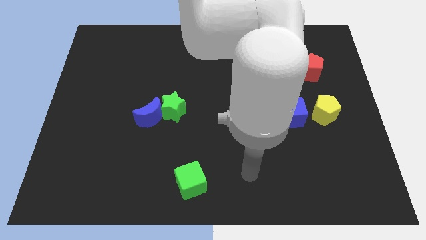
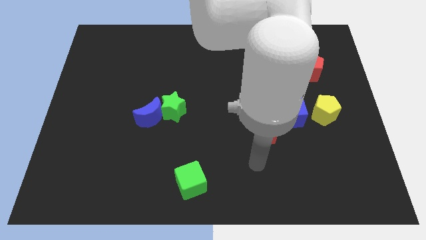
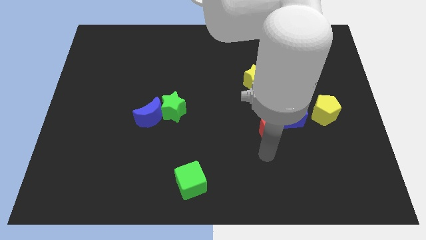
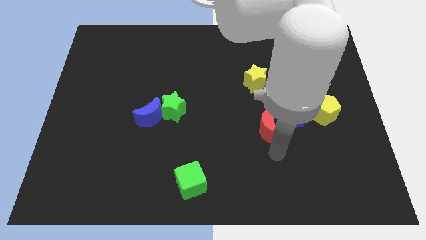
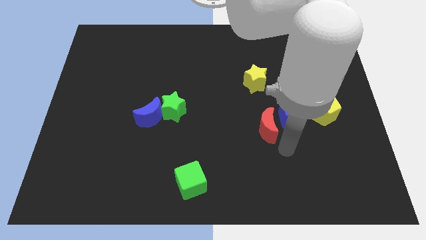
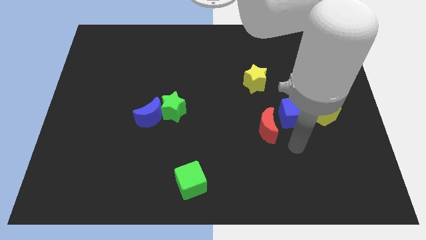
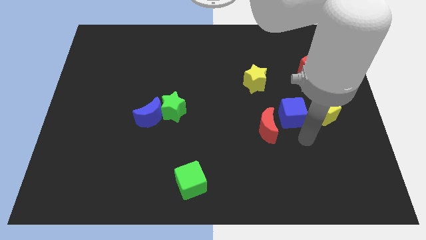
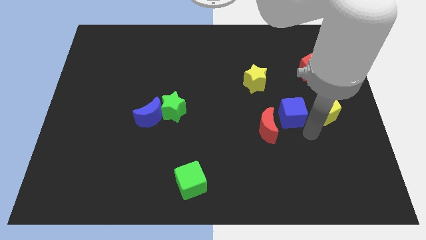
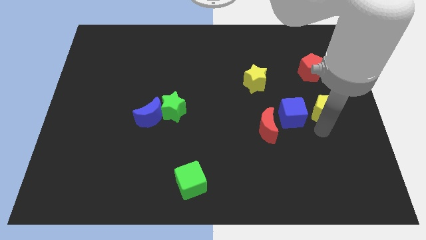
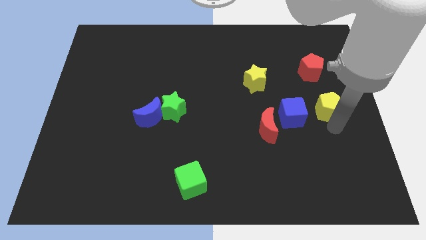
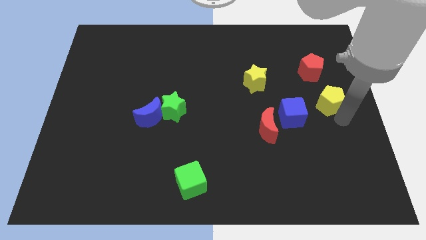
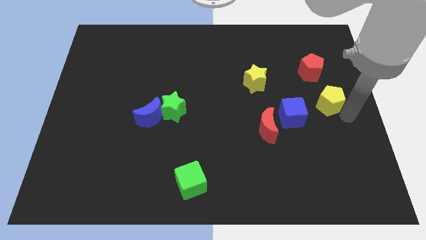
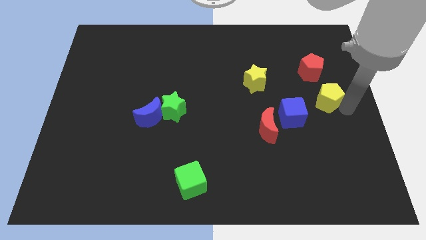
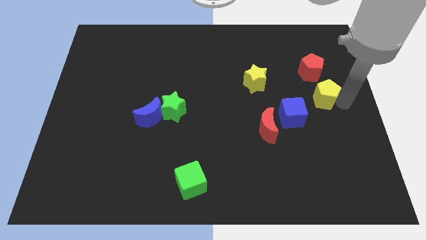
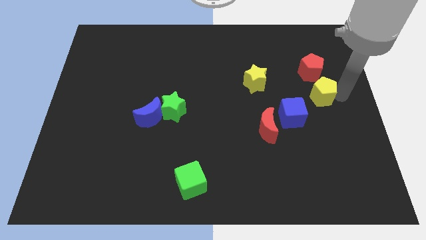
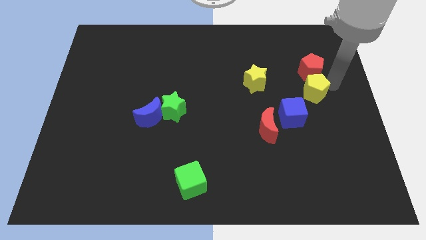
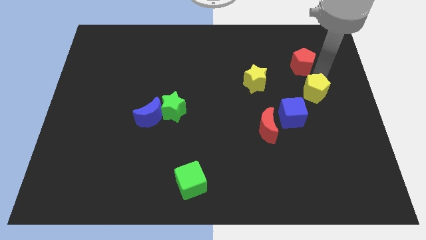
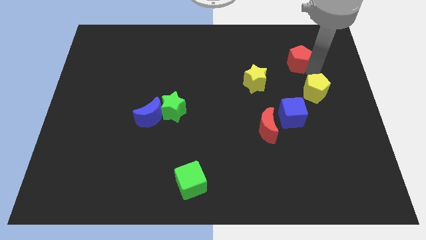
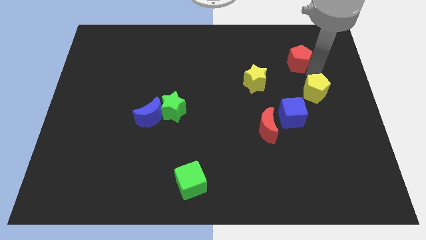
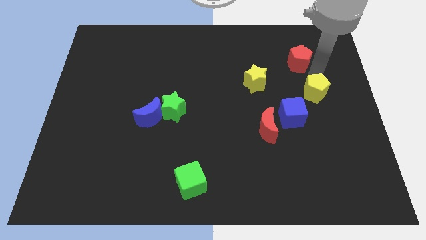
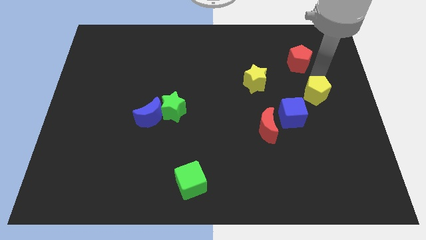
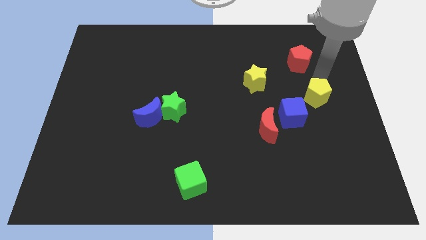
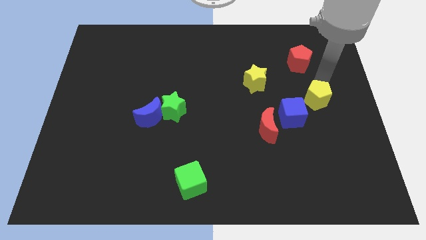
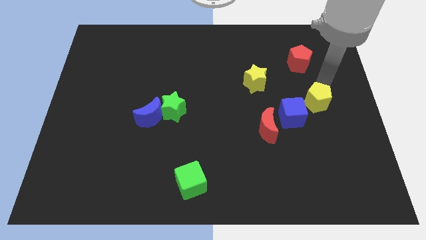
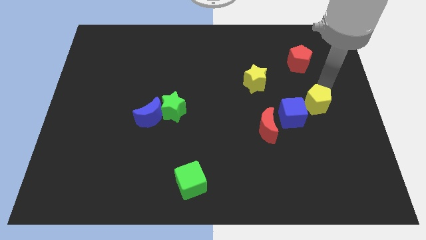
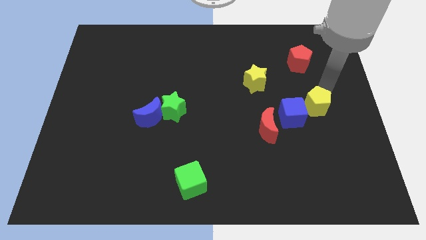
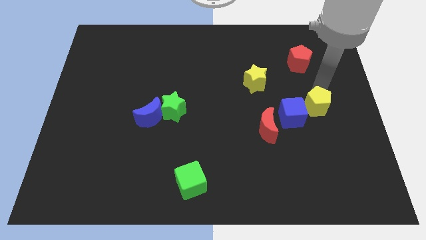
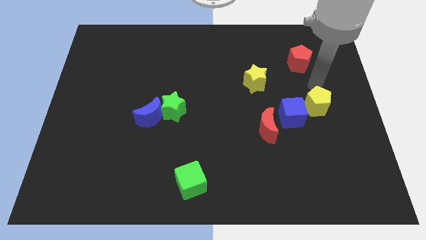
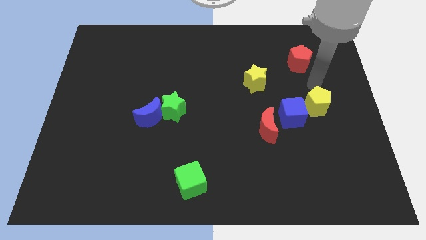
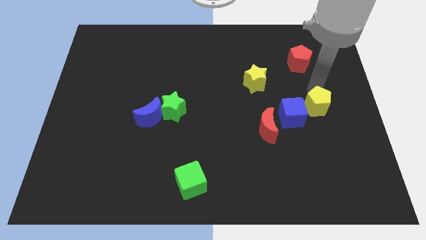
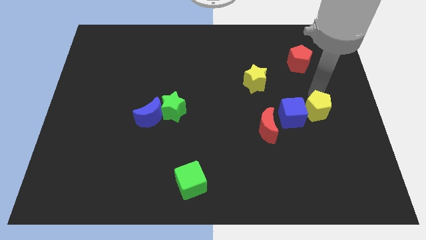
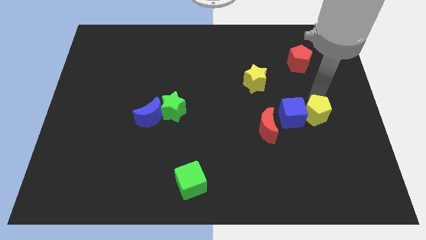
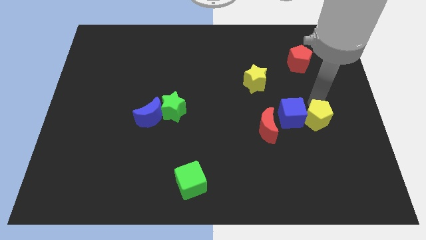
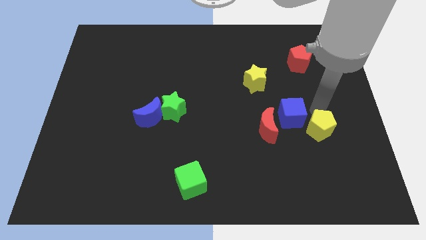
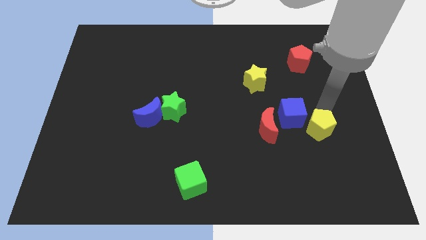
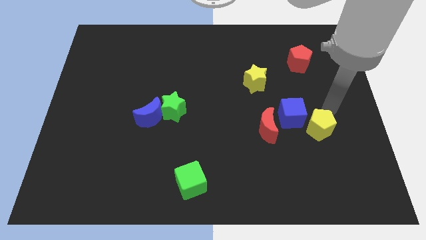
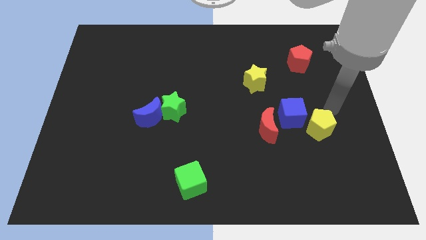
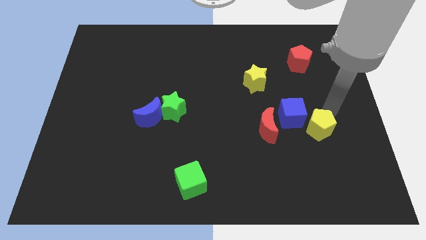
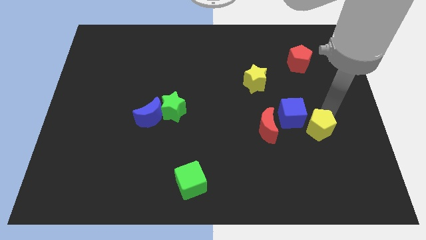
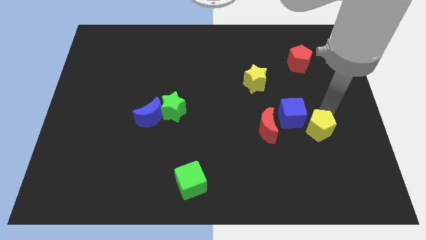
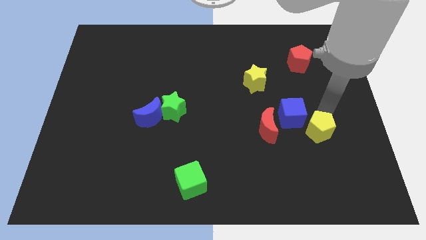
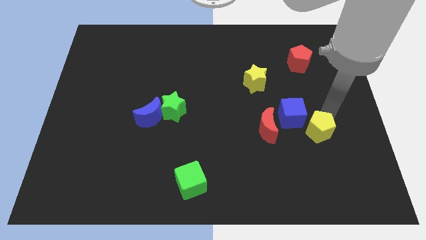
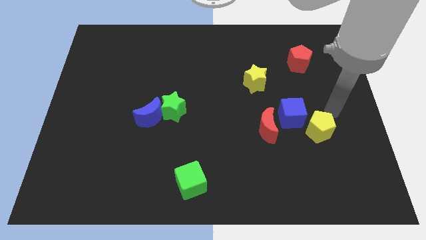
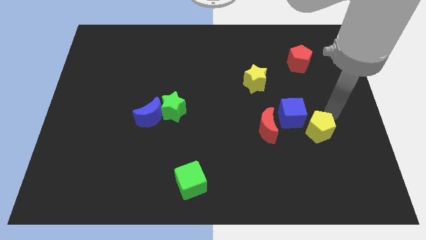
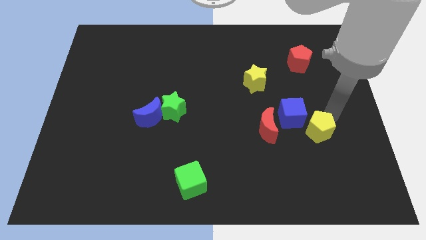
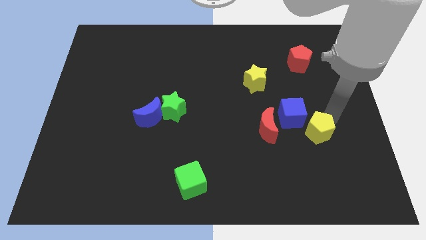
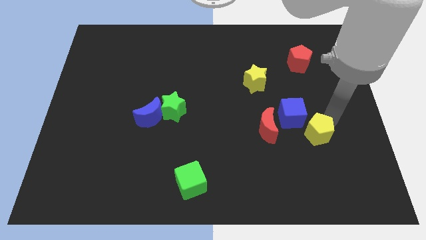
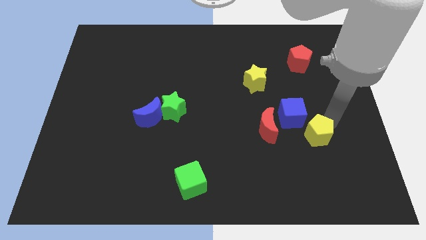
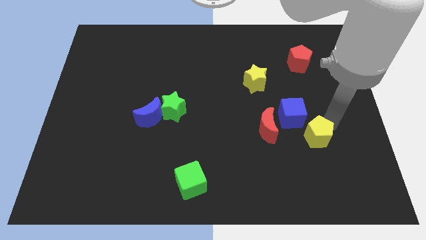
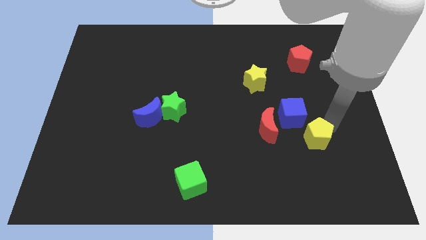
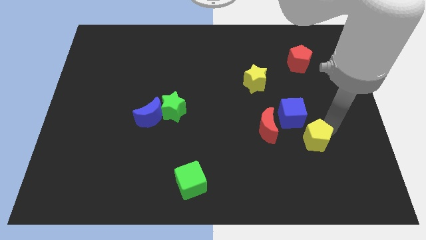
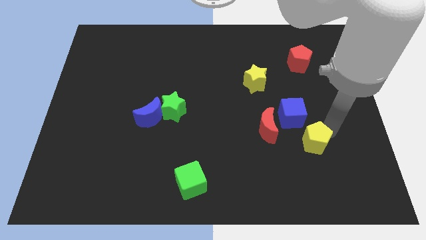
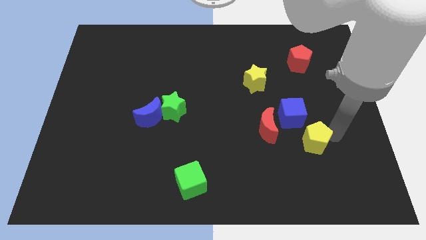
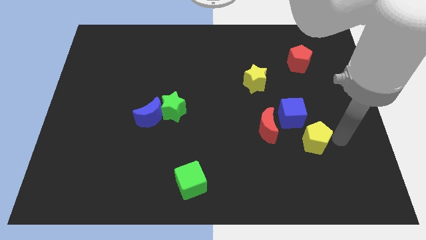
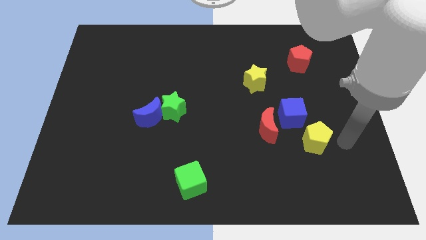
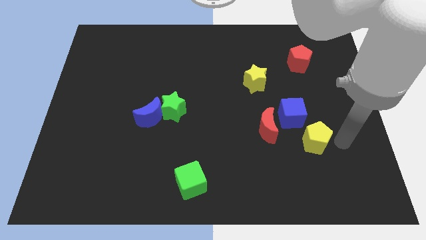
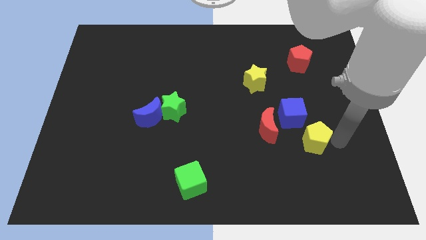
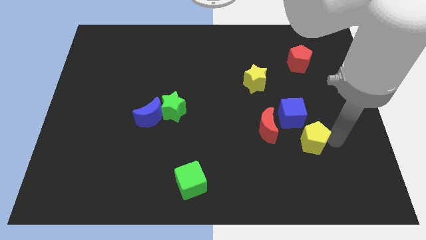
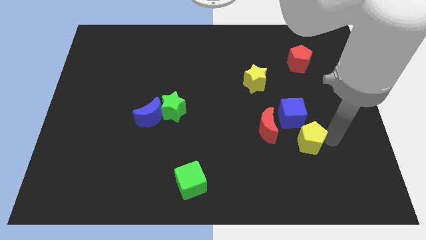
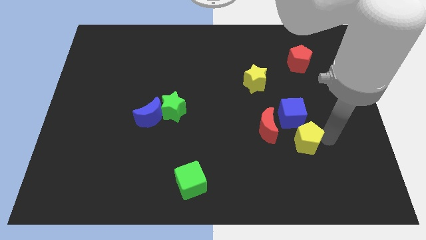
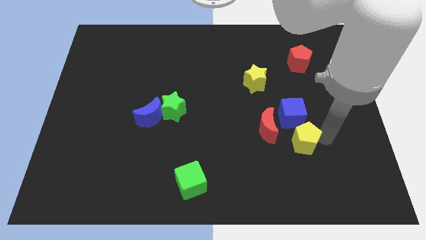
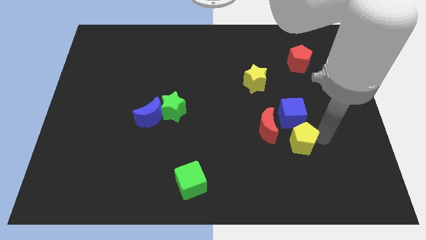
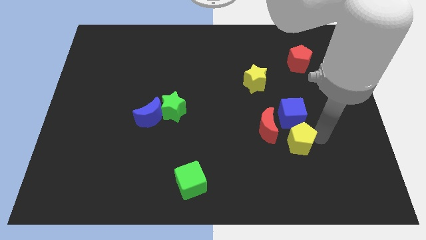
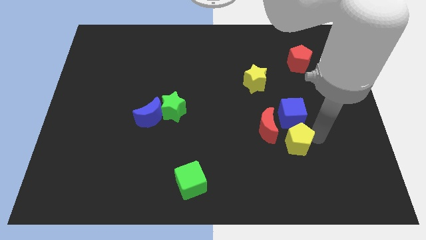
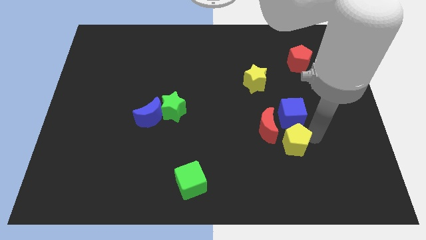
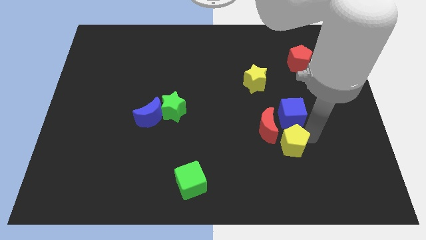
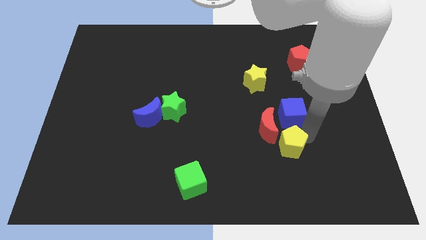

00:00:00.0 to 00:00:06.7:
push the yellow pentagon diagonally down and to the left of the blue cube
